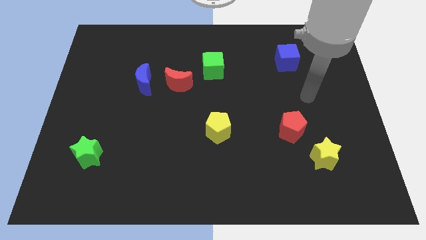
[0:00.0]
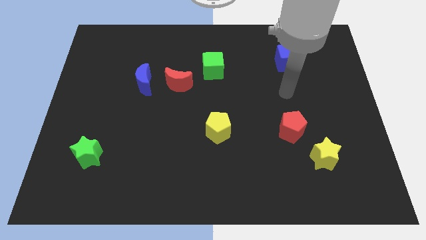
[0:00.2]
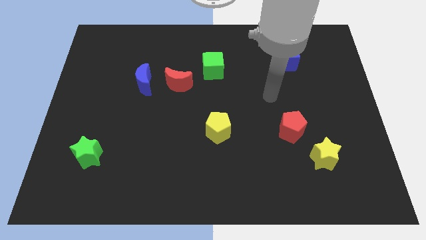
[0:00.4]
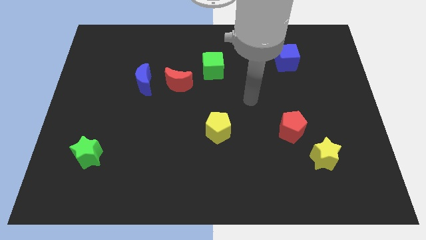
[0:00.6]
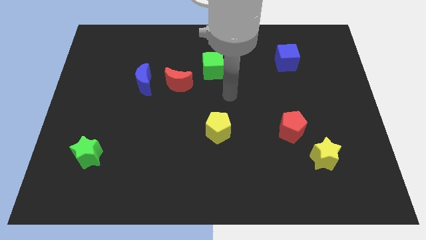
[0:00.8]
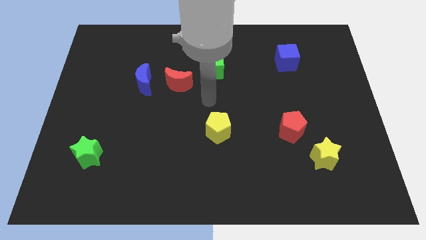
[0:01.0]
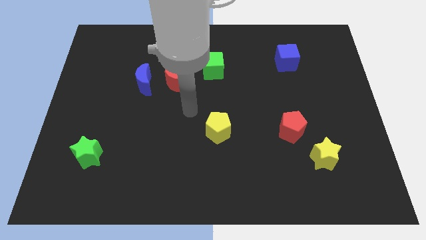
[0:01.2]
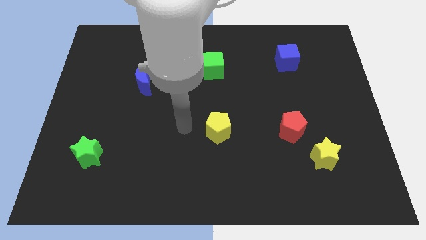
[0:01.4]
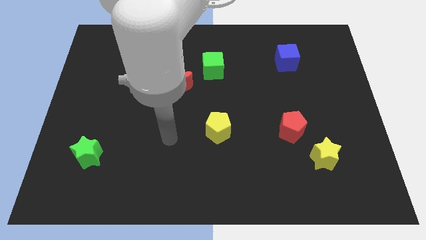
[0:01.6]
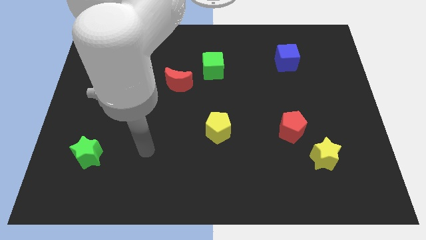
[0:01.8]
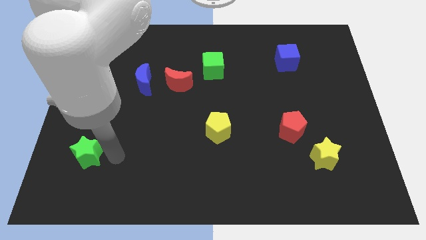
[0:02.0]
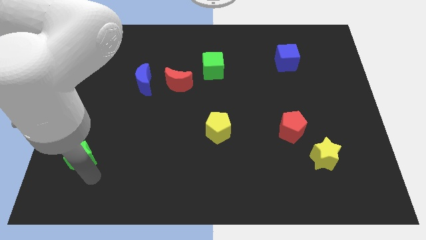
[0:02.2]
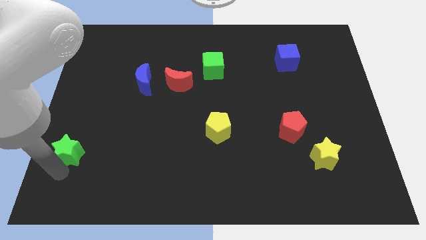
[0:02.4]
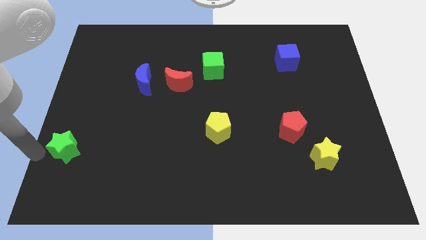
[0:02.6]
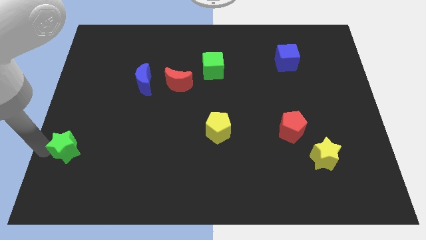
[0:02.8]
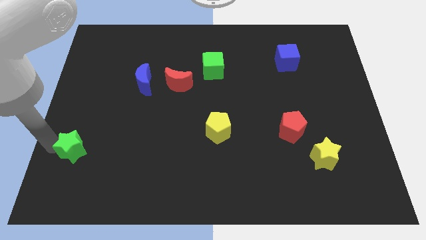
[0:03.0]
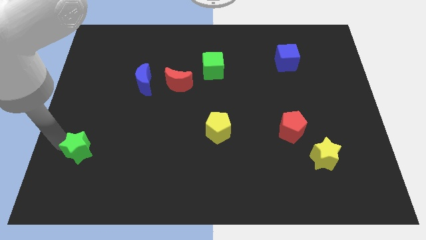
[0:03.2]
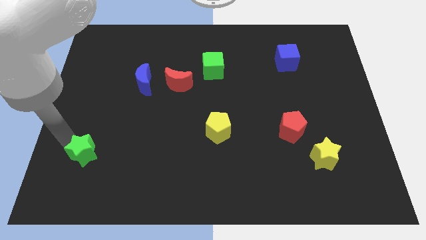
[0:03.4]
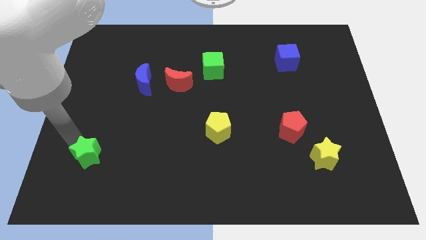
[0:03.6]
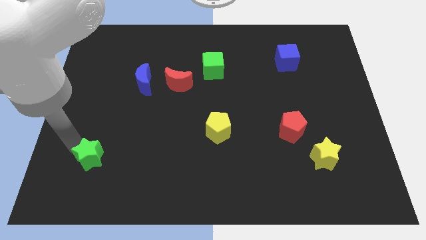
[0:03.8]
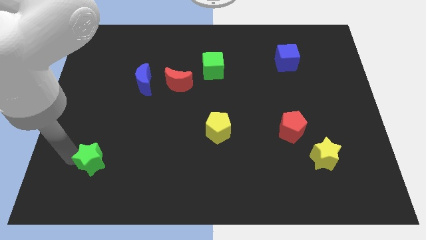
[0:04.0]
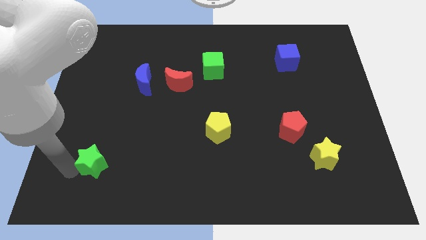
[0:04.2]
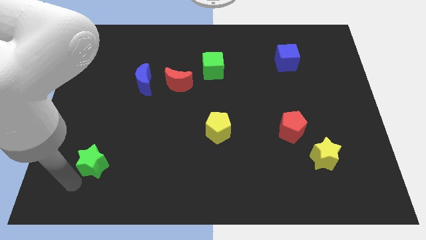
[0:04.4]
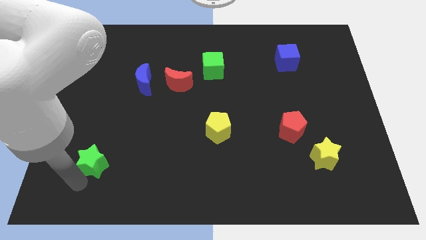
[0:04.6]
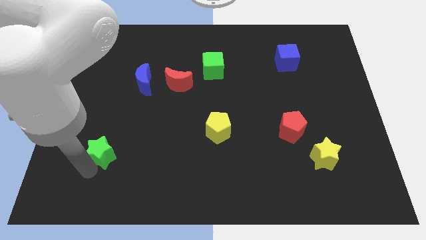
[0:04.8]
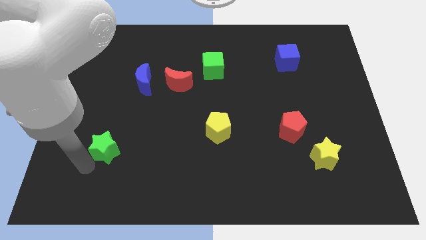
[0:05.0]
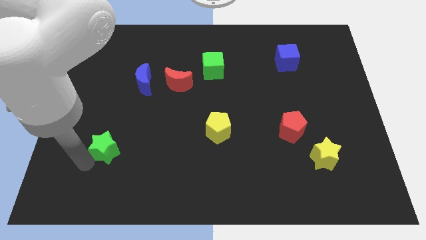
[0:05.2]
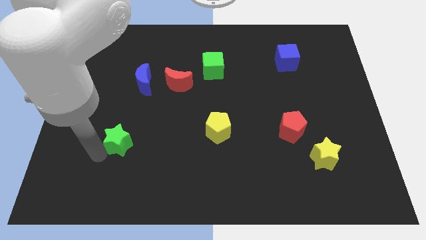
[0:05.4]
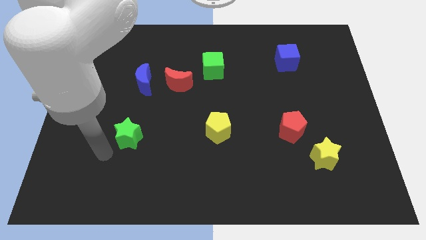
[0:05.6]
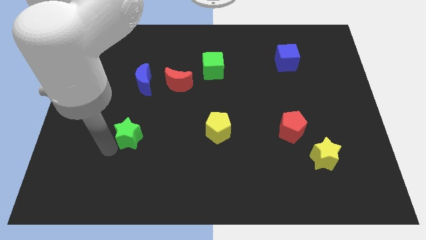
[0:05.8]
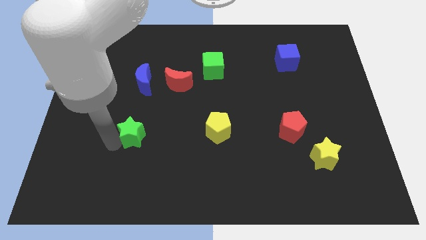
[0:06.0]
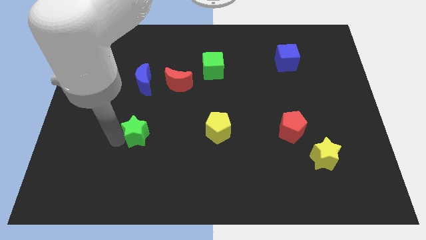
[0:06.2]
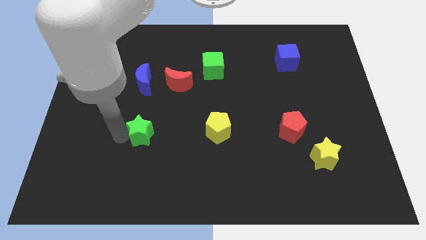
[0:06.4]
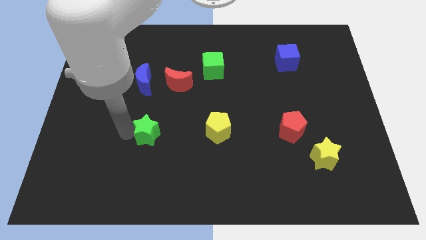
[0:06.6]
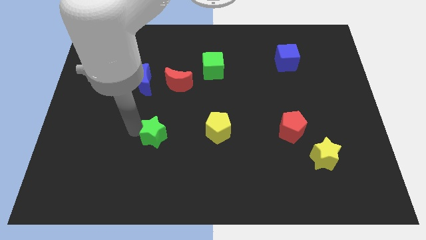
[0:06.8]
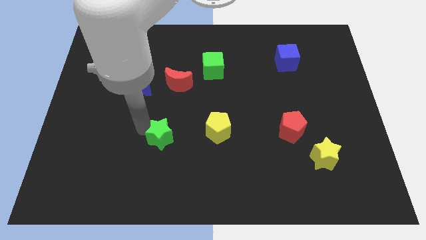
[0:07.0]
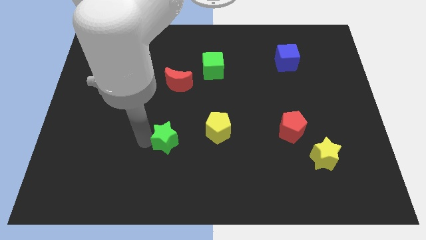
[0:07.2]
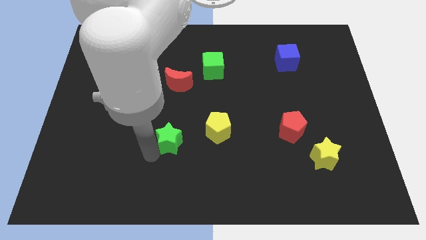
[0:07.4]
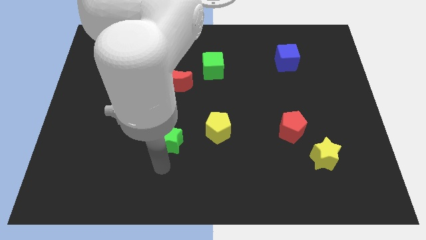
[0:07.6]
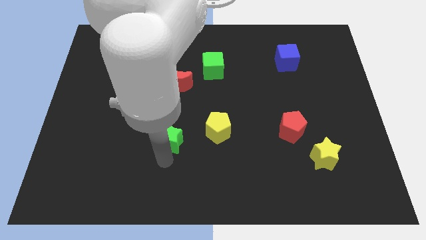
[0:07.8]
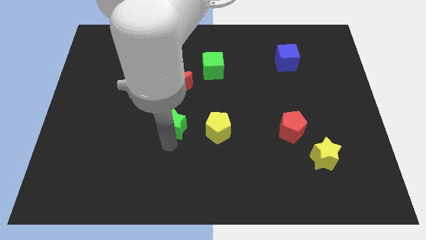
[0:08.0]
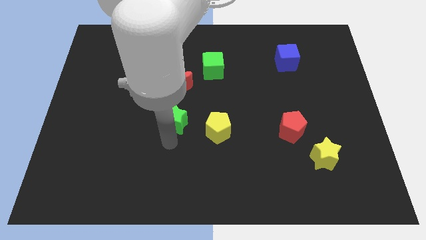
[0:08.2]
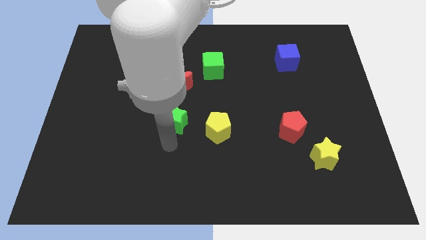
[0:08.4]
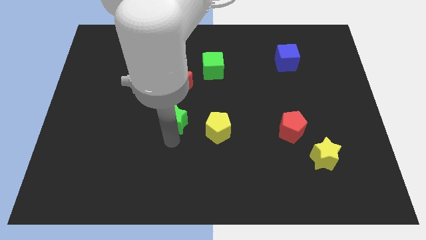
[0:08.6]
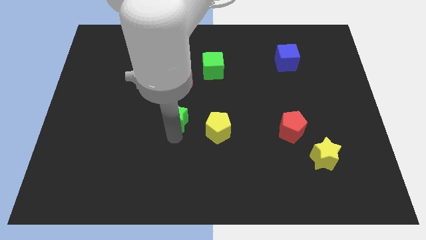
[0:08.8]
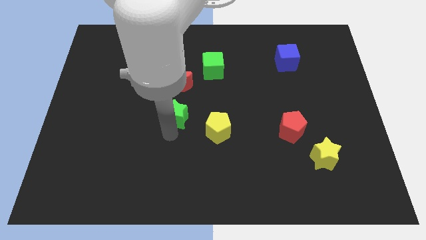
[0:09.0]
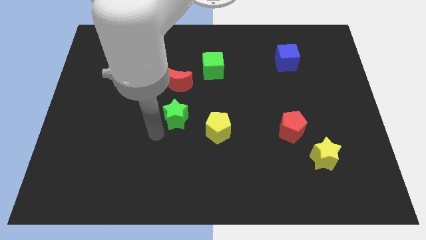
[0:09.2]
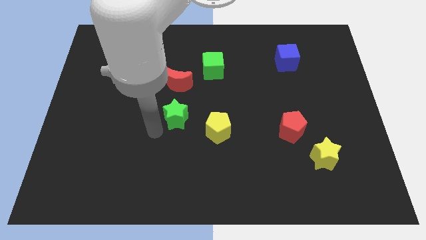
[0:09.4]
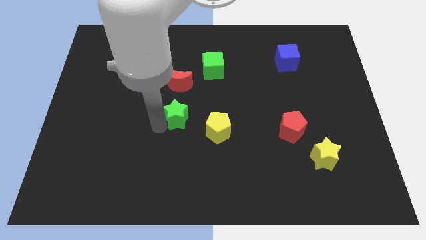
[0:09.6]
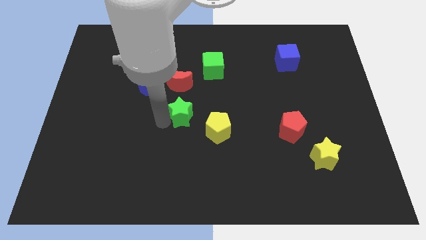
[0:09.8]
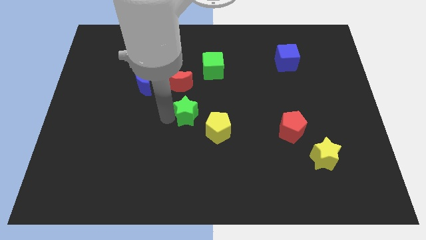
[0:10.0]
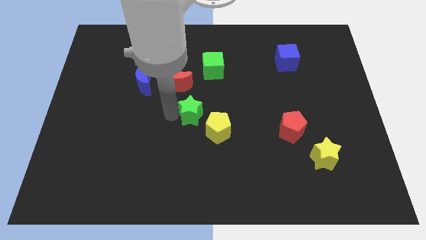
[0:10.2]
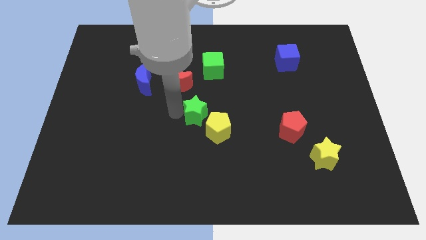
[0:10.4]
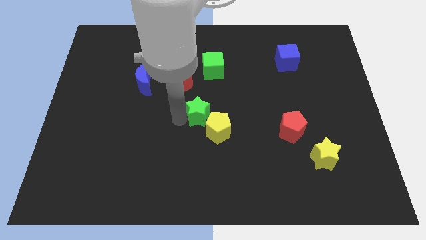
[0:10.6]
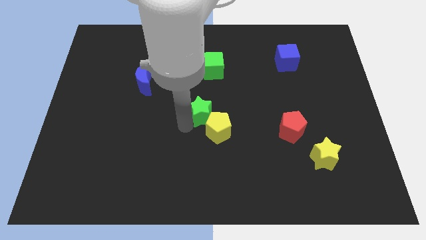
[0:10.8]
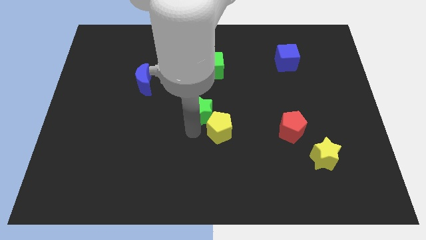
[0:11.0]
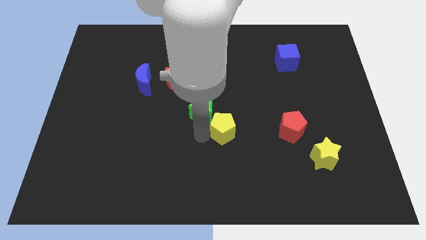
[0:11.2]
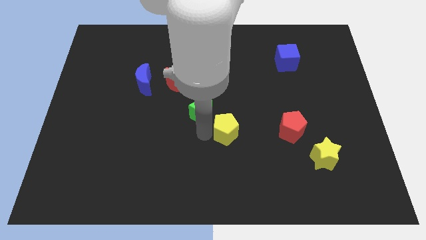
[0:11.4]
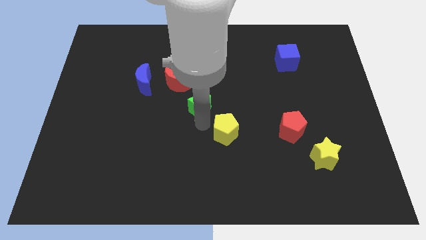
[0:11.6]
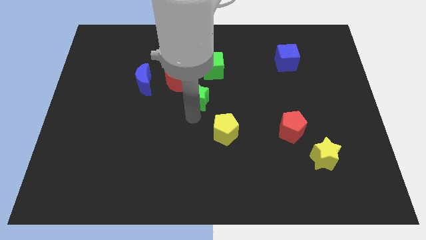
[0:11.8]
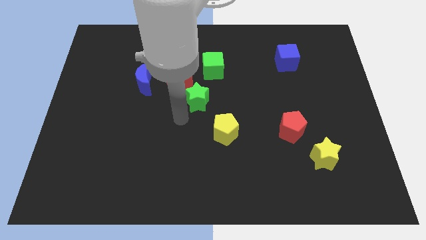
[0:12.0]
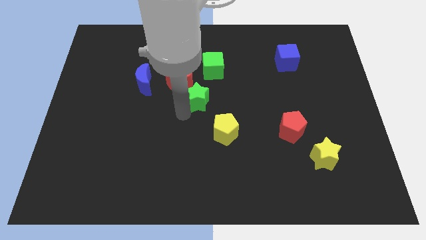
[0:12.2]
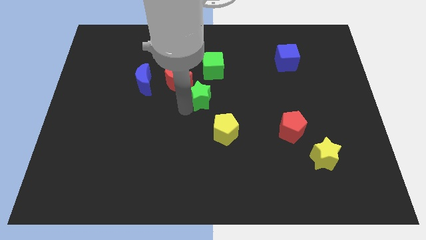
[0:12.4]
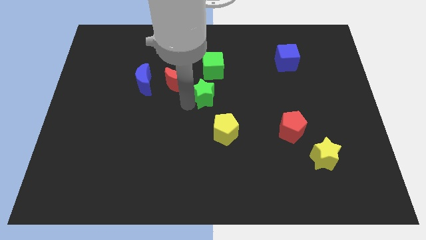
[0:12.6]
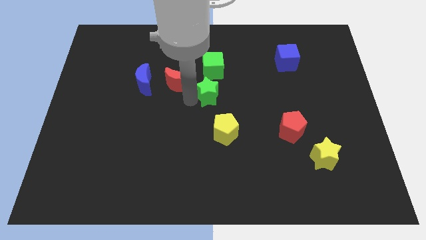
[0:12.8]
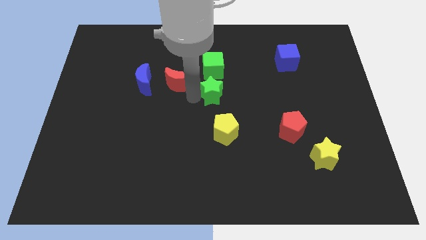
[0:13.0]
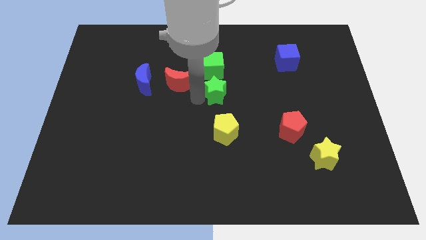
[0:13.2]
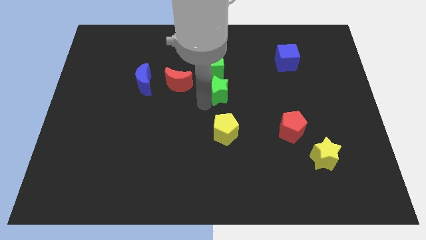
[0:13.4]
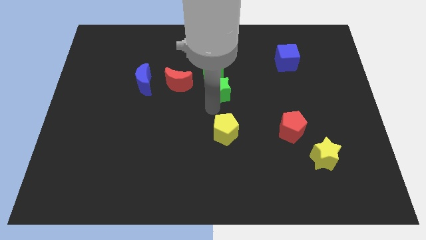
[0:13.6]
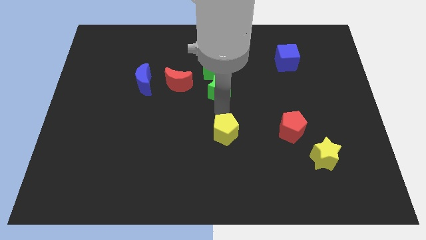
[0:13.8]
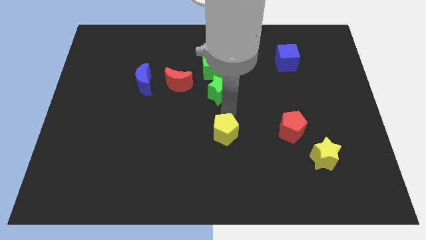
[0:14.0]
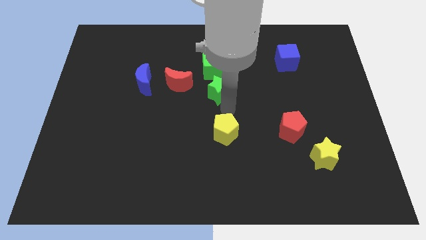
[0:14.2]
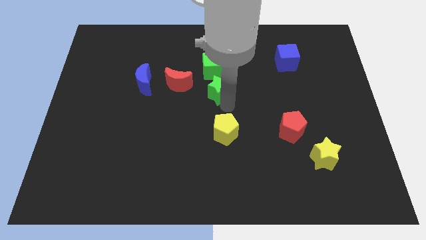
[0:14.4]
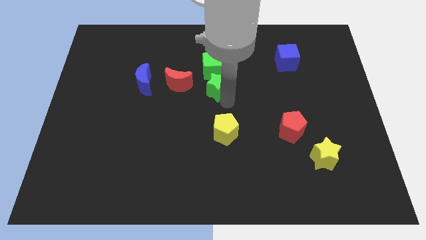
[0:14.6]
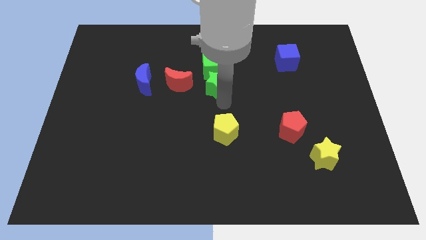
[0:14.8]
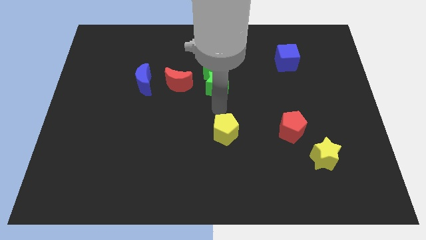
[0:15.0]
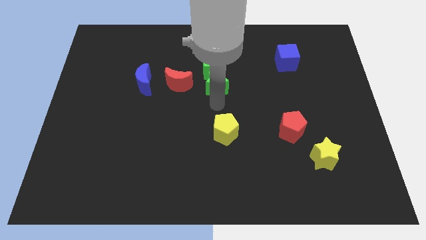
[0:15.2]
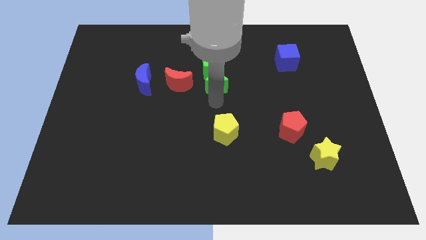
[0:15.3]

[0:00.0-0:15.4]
move the green star to the green cube

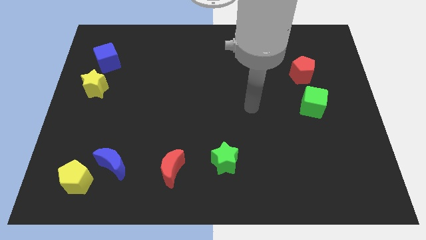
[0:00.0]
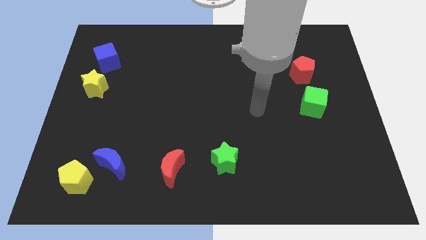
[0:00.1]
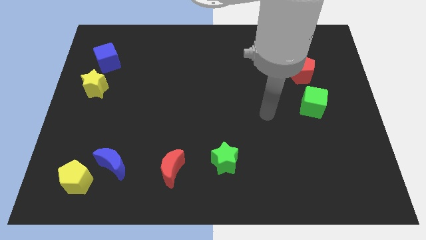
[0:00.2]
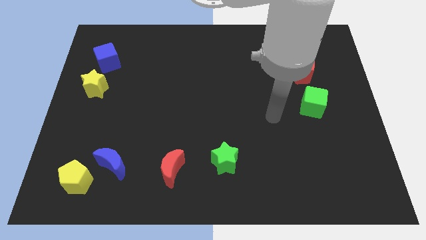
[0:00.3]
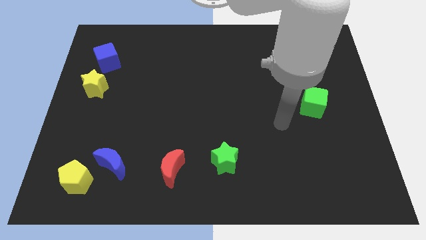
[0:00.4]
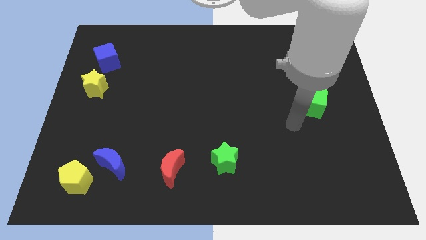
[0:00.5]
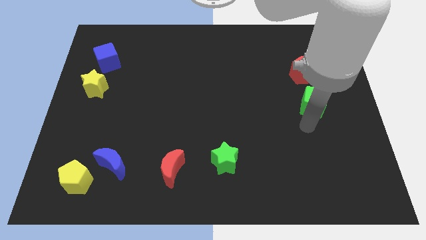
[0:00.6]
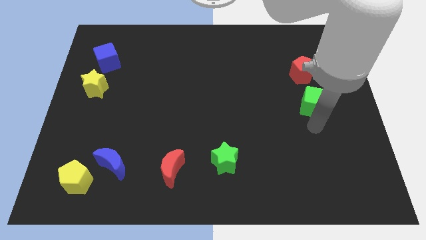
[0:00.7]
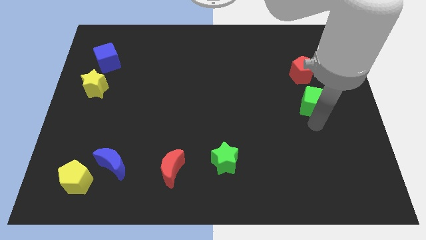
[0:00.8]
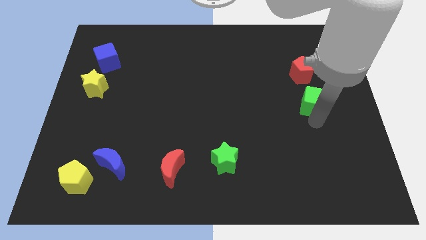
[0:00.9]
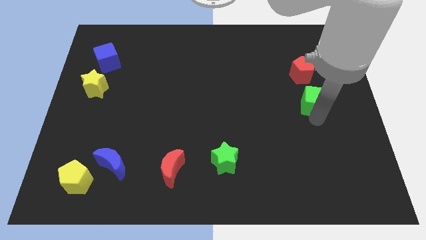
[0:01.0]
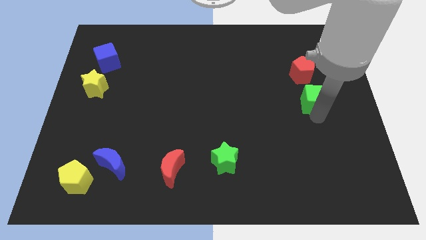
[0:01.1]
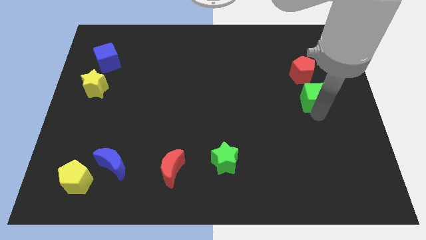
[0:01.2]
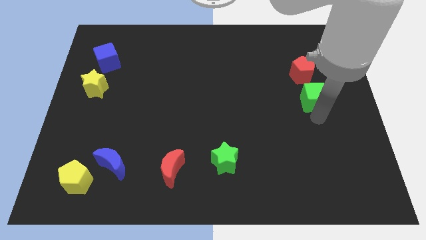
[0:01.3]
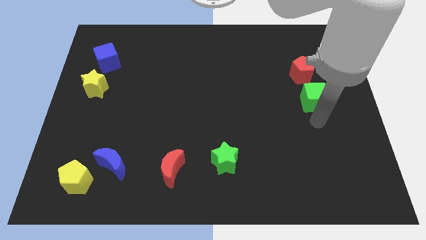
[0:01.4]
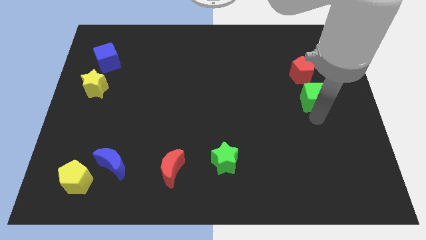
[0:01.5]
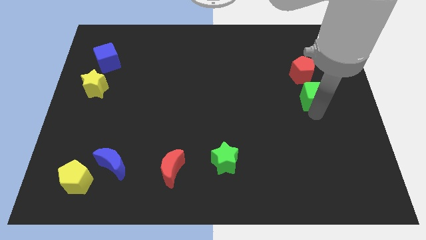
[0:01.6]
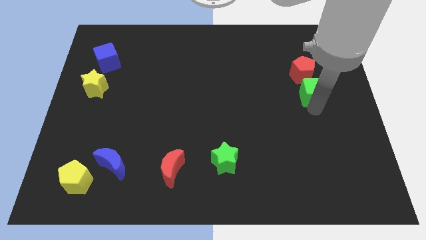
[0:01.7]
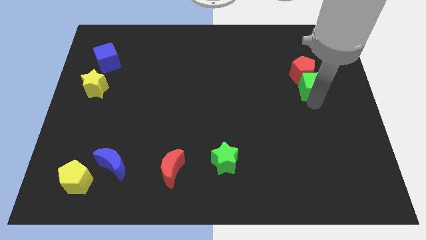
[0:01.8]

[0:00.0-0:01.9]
move the green cube next to the red pentagon
